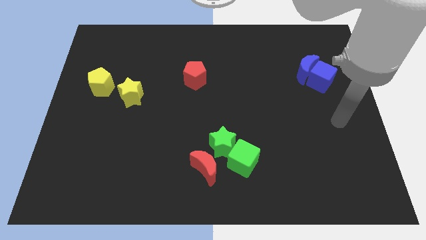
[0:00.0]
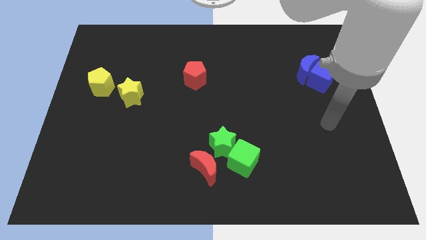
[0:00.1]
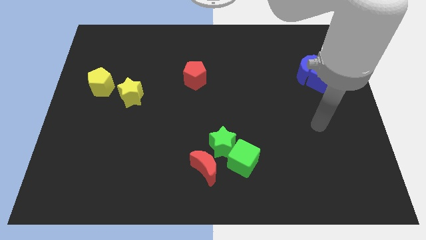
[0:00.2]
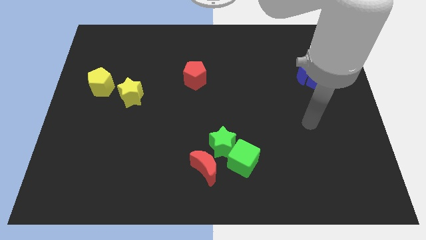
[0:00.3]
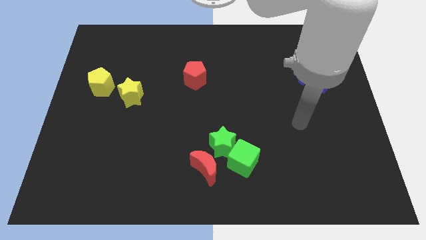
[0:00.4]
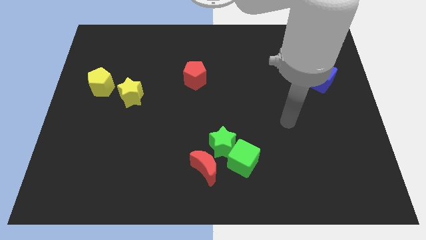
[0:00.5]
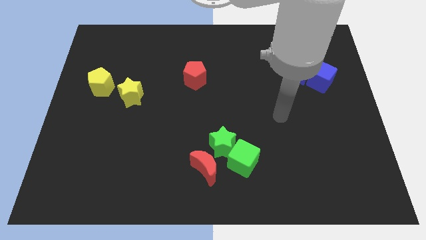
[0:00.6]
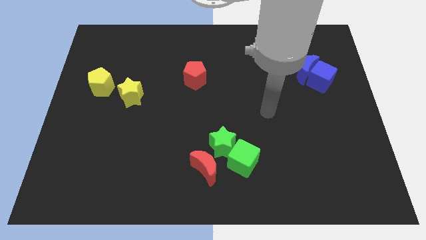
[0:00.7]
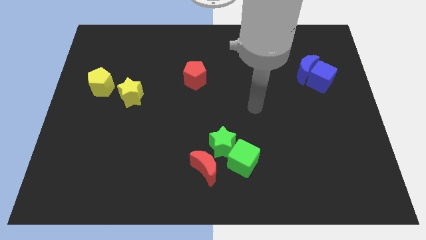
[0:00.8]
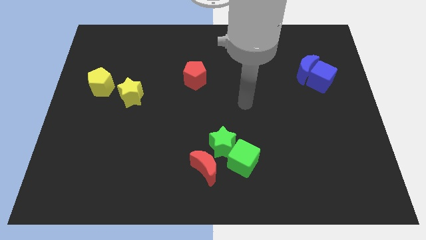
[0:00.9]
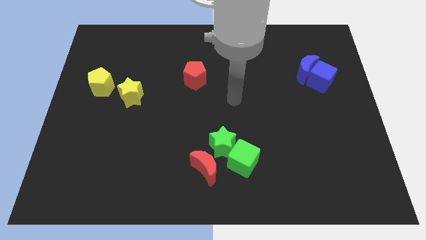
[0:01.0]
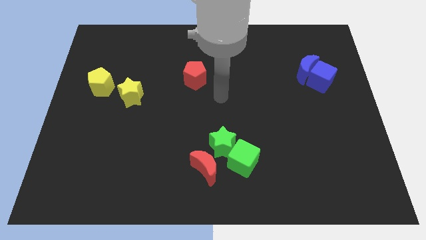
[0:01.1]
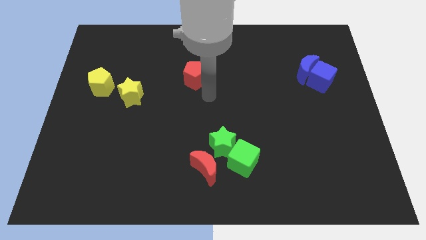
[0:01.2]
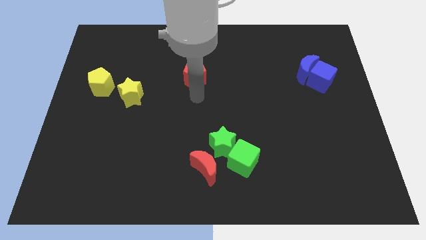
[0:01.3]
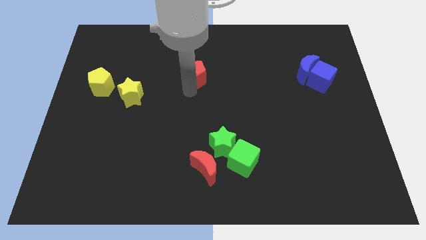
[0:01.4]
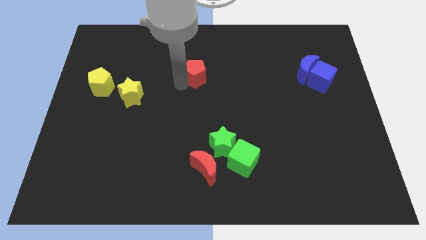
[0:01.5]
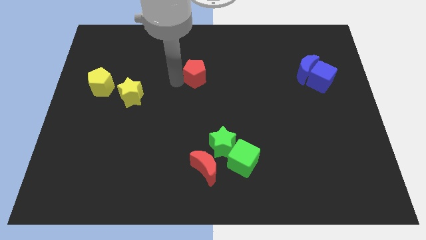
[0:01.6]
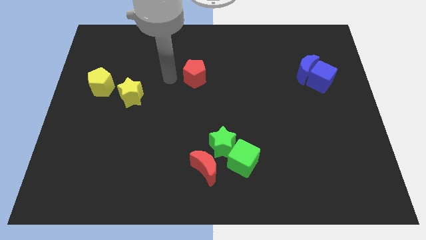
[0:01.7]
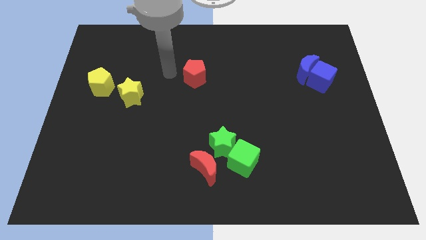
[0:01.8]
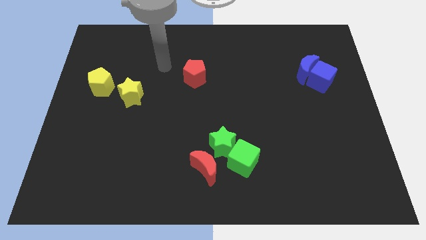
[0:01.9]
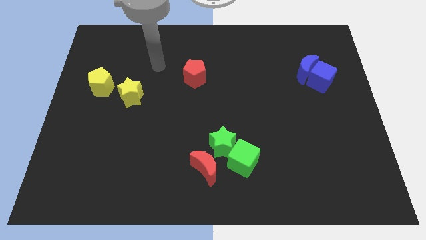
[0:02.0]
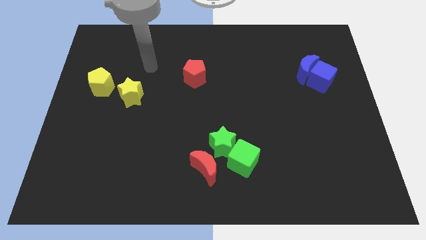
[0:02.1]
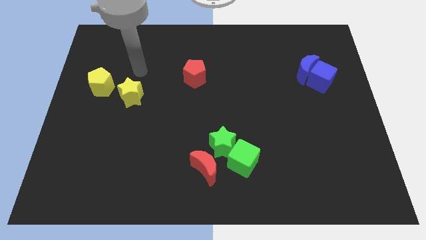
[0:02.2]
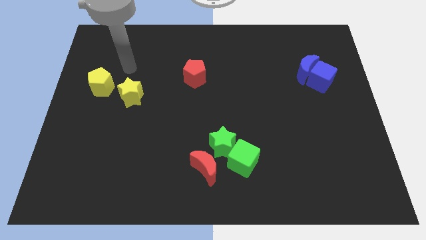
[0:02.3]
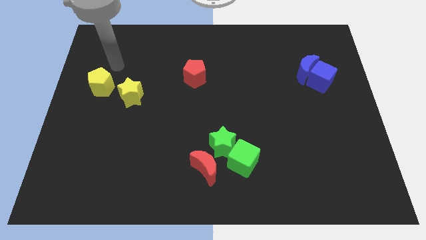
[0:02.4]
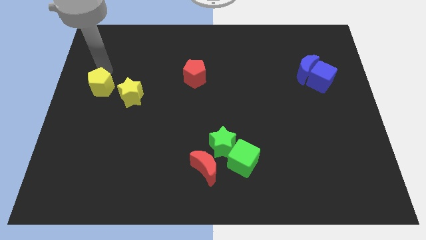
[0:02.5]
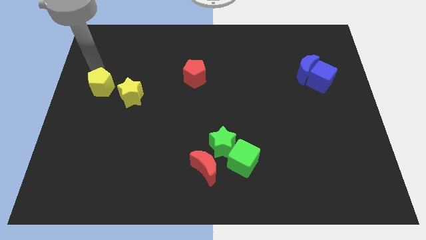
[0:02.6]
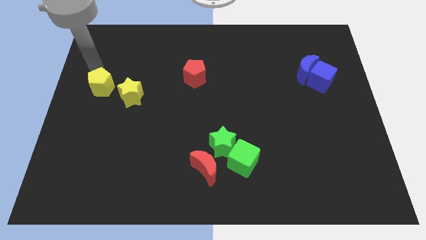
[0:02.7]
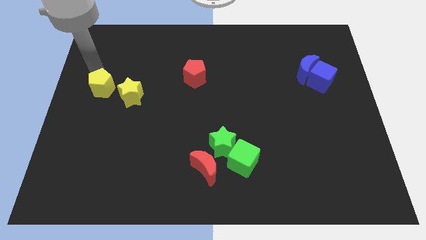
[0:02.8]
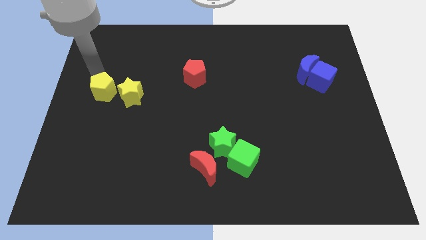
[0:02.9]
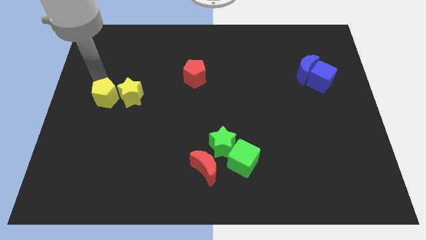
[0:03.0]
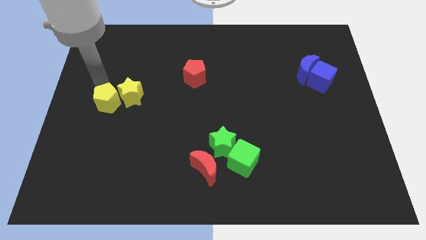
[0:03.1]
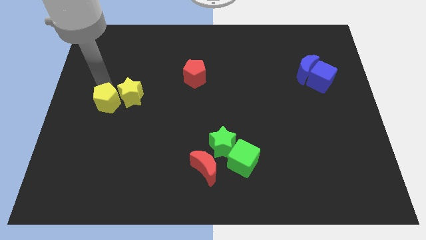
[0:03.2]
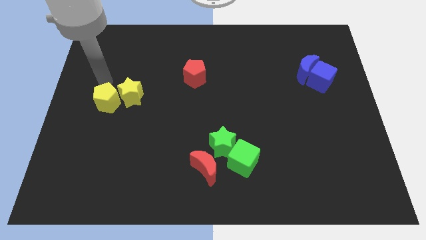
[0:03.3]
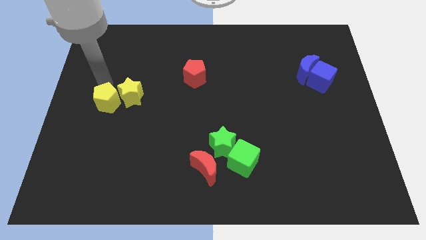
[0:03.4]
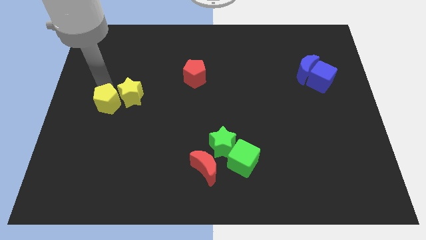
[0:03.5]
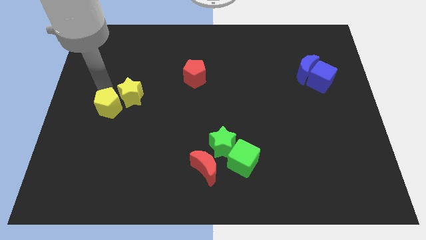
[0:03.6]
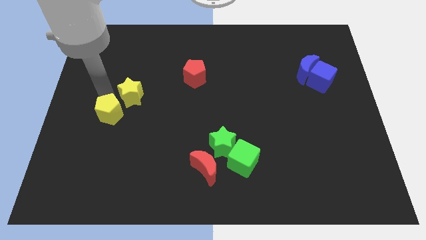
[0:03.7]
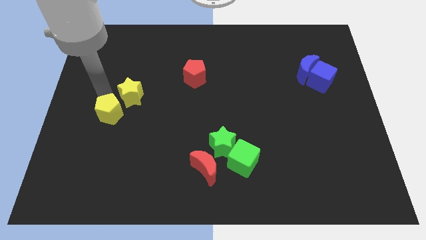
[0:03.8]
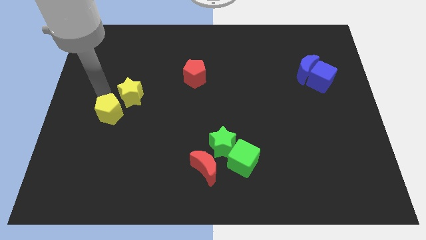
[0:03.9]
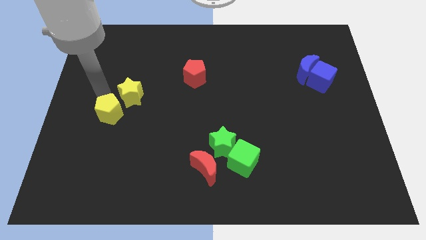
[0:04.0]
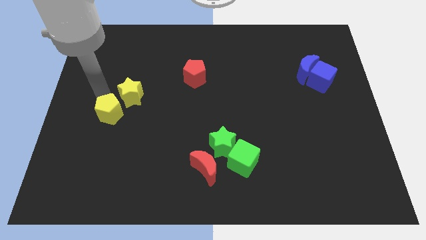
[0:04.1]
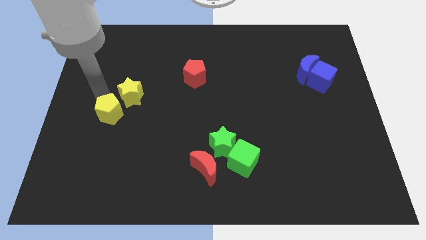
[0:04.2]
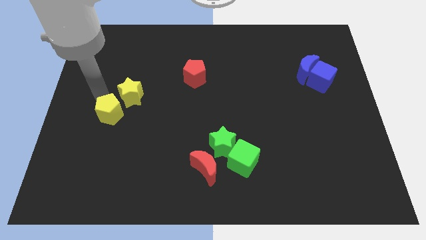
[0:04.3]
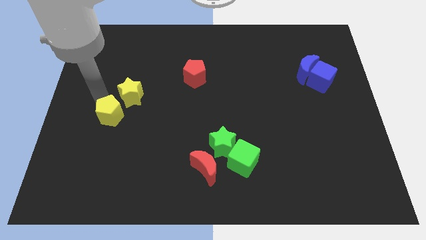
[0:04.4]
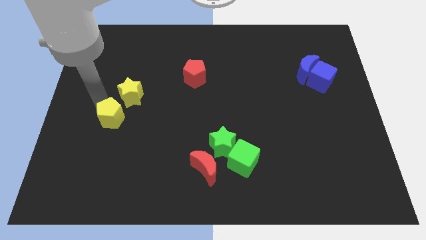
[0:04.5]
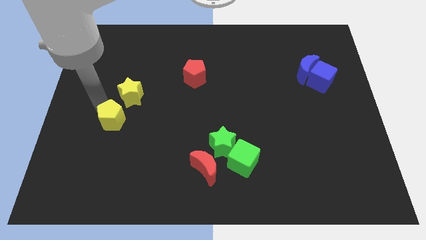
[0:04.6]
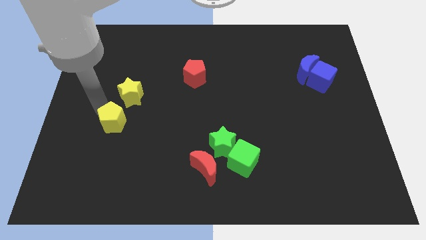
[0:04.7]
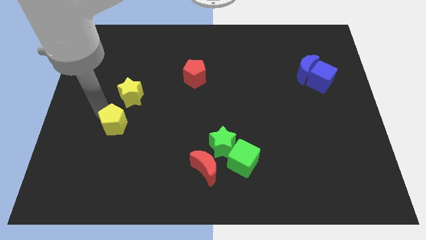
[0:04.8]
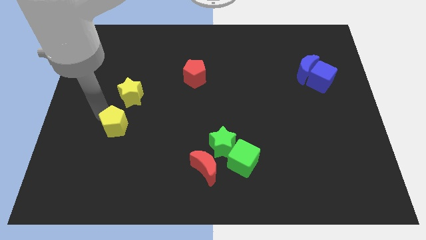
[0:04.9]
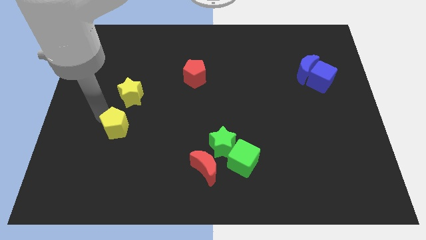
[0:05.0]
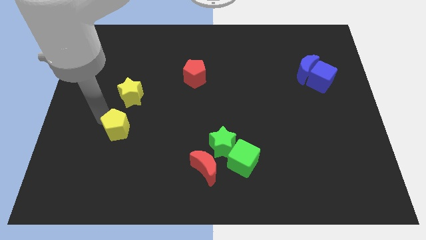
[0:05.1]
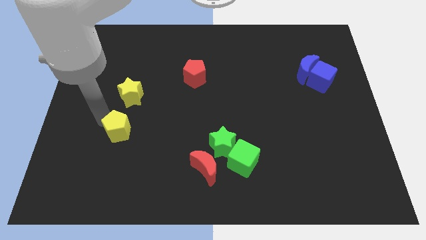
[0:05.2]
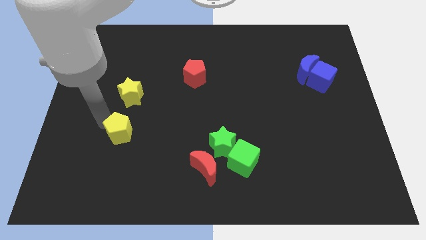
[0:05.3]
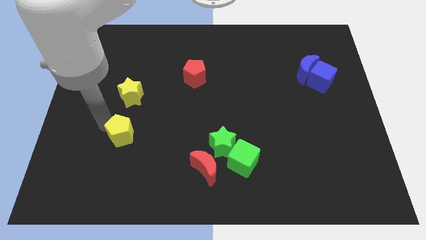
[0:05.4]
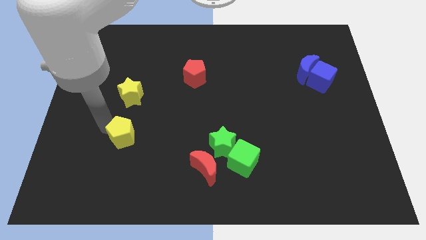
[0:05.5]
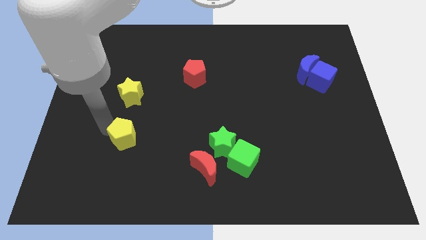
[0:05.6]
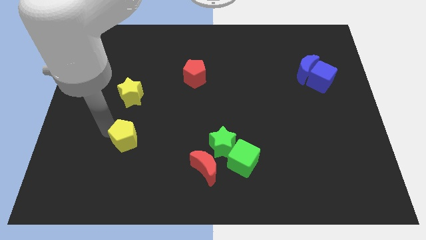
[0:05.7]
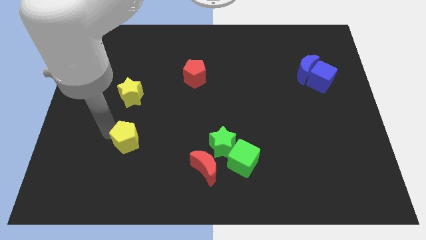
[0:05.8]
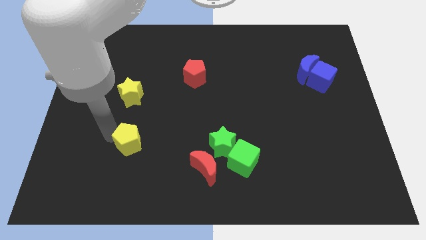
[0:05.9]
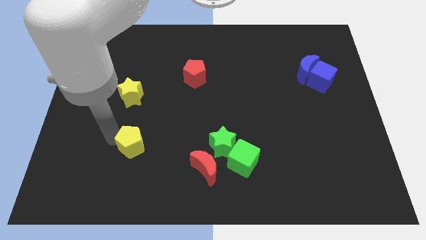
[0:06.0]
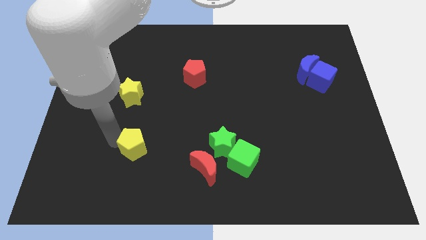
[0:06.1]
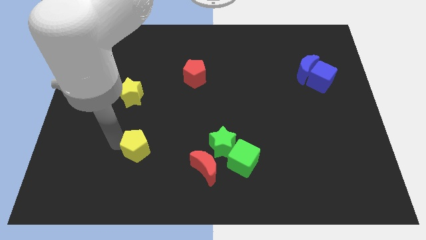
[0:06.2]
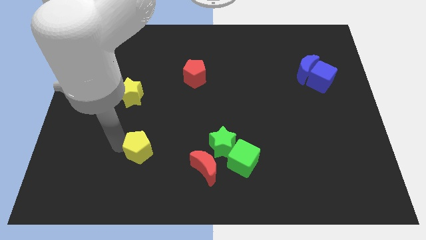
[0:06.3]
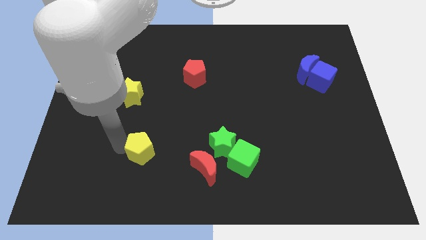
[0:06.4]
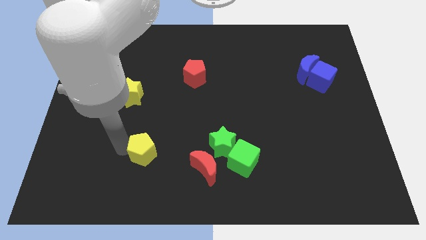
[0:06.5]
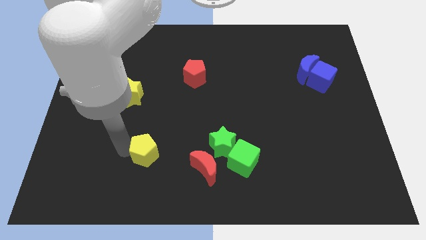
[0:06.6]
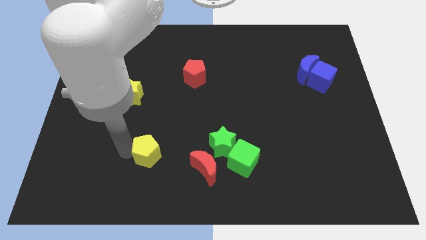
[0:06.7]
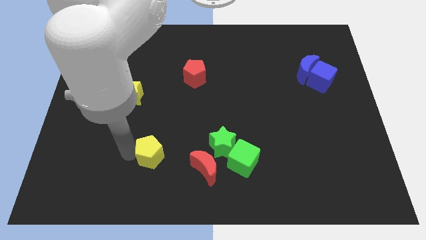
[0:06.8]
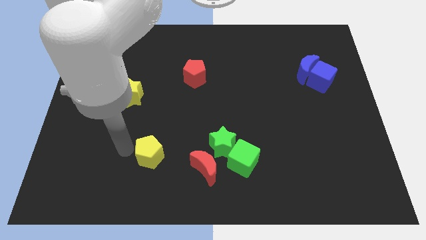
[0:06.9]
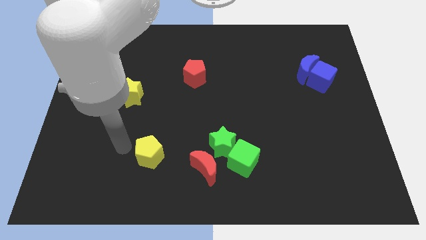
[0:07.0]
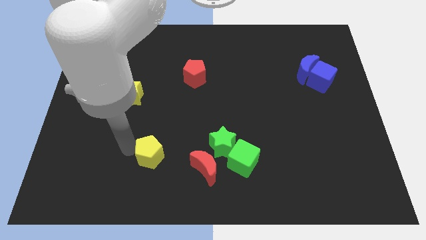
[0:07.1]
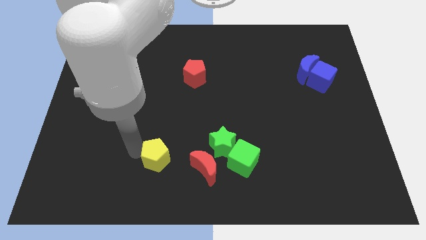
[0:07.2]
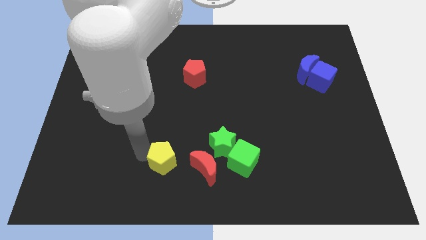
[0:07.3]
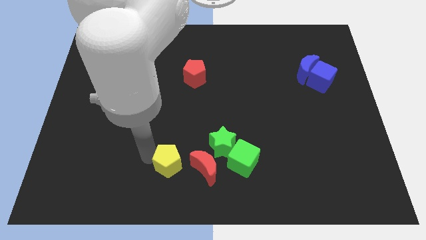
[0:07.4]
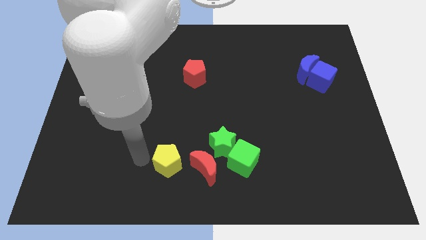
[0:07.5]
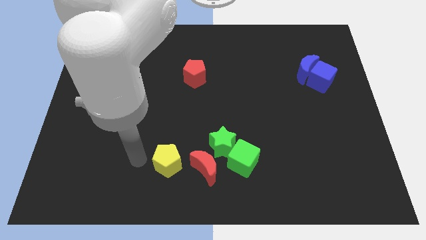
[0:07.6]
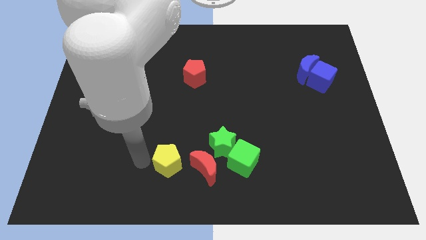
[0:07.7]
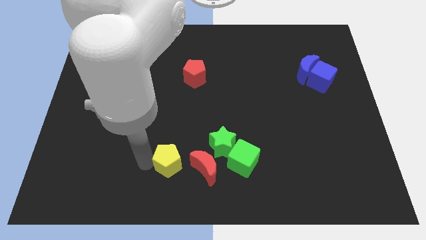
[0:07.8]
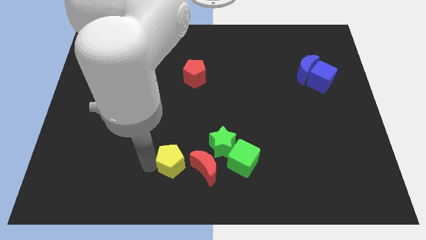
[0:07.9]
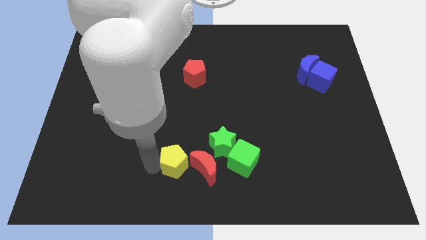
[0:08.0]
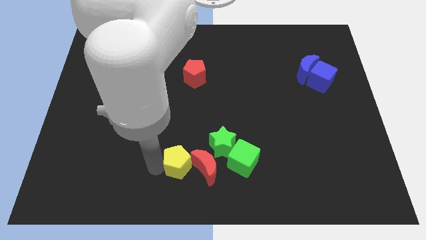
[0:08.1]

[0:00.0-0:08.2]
put the yellow pentagon towards the red moon
